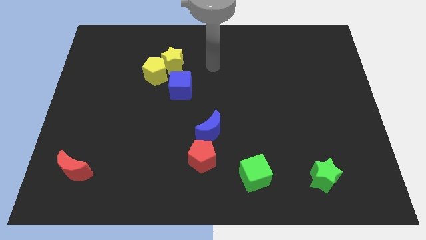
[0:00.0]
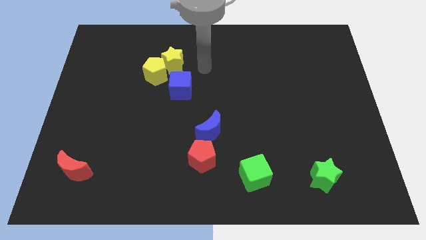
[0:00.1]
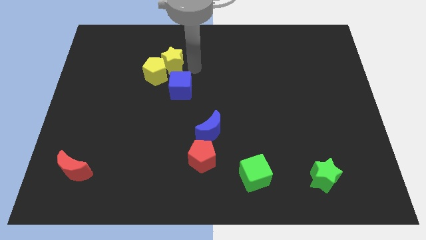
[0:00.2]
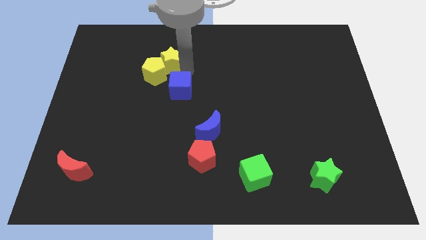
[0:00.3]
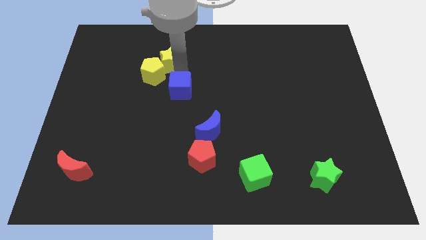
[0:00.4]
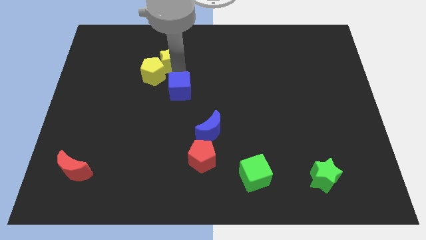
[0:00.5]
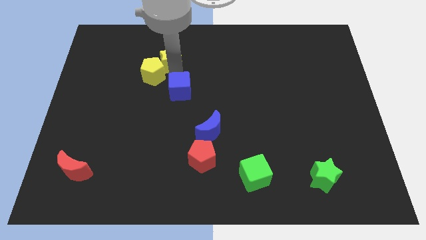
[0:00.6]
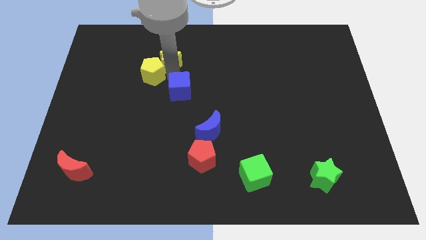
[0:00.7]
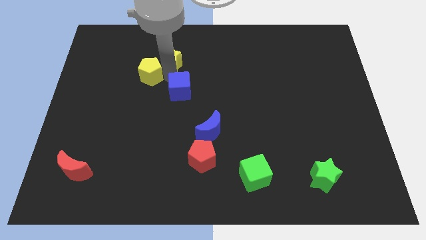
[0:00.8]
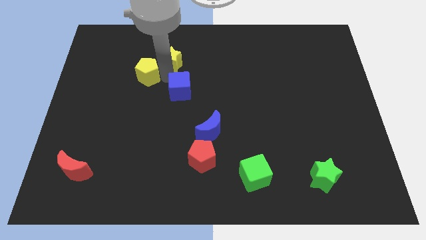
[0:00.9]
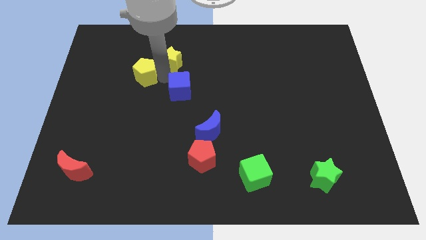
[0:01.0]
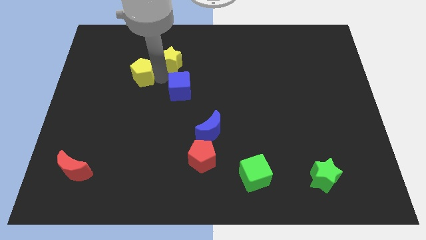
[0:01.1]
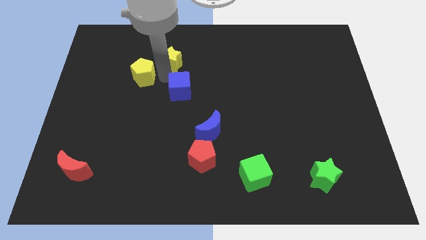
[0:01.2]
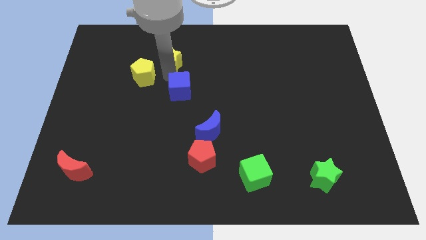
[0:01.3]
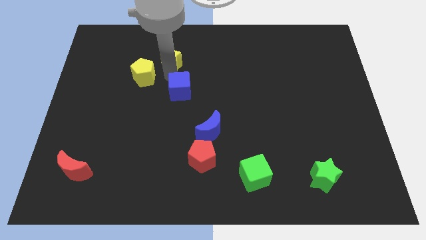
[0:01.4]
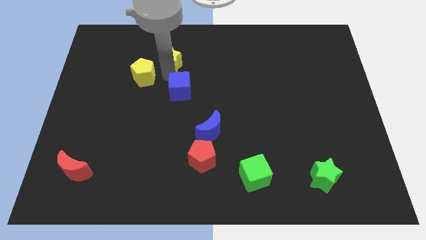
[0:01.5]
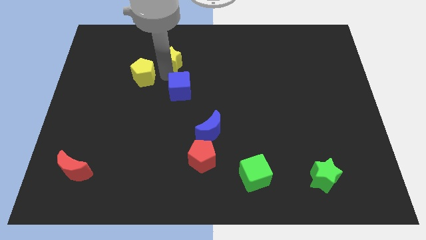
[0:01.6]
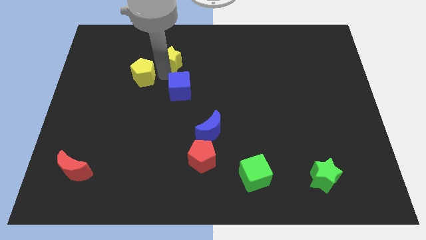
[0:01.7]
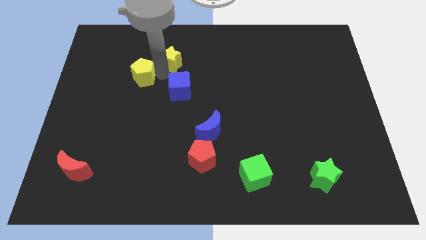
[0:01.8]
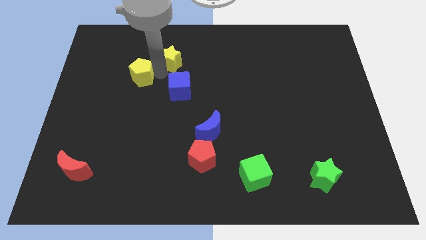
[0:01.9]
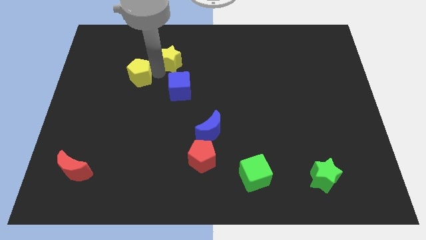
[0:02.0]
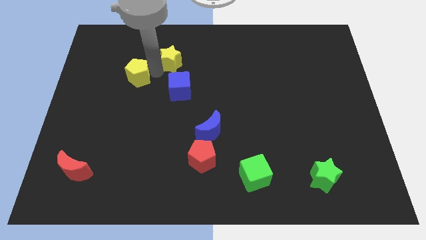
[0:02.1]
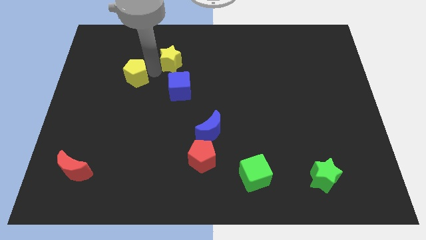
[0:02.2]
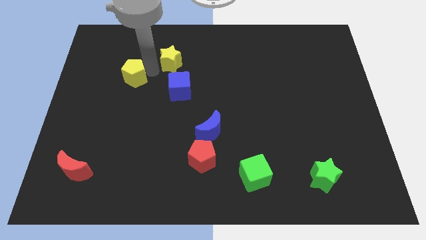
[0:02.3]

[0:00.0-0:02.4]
separate the yellow pentagon from the yellow star and blue cube

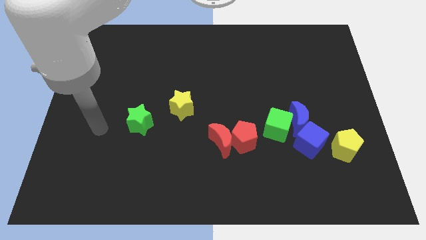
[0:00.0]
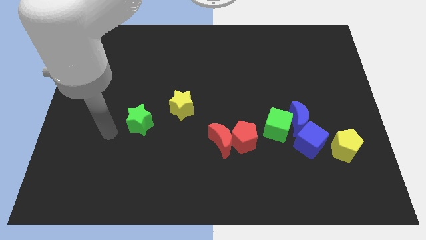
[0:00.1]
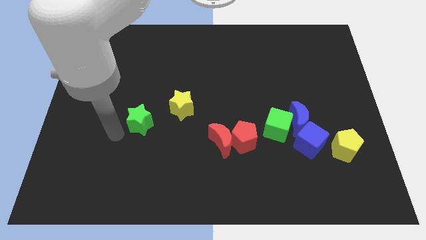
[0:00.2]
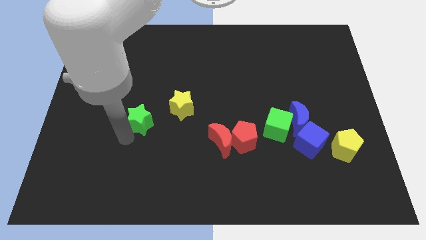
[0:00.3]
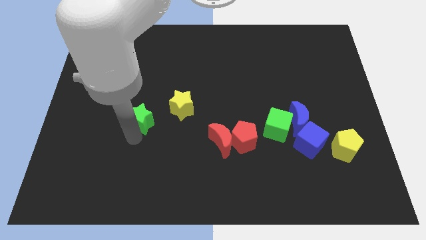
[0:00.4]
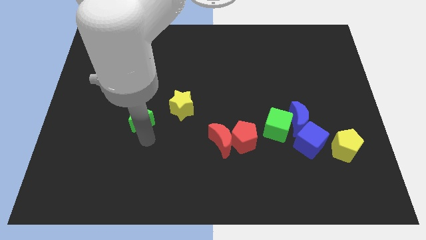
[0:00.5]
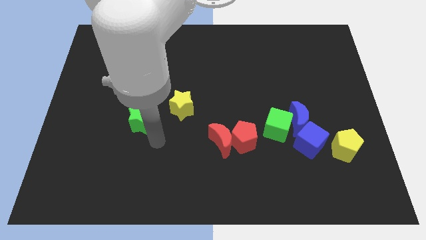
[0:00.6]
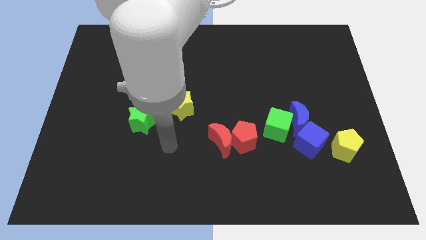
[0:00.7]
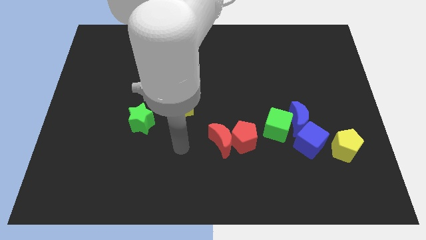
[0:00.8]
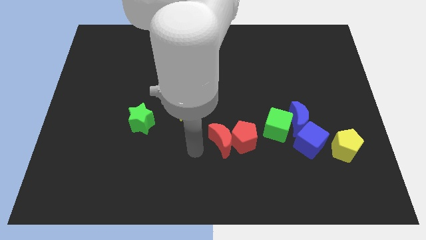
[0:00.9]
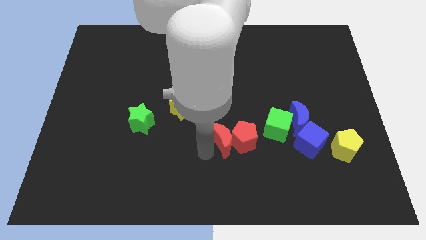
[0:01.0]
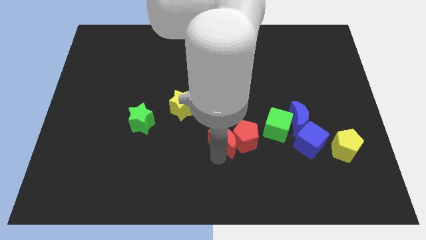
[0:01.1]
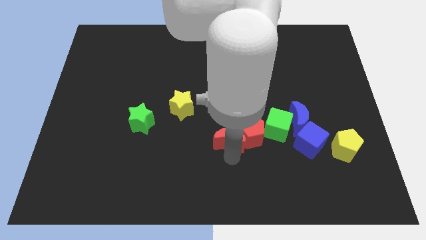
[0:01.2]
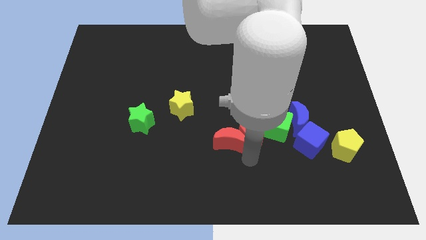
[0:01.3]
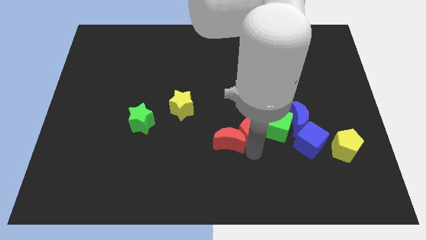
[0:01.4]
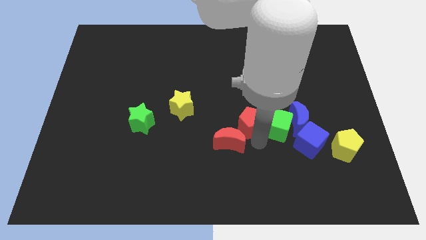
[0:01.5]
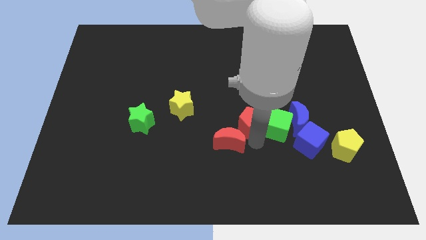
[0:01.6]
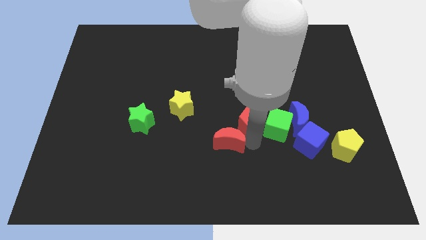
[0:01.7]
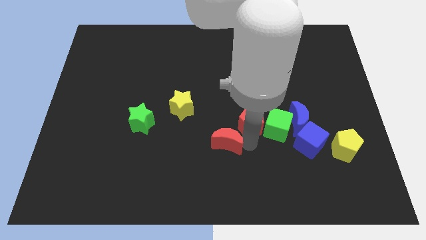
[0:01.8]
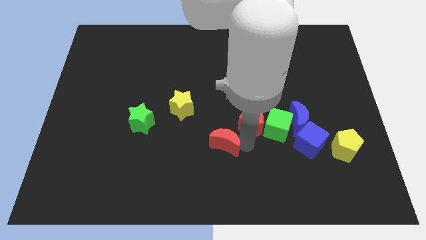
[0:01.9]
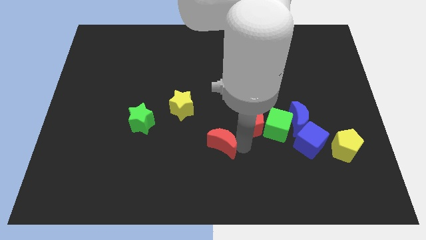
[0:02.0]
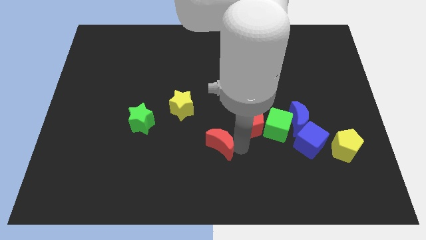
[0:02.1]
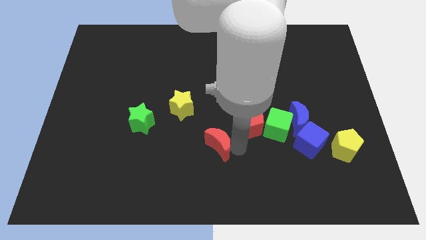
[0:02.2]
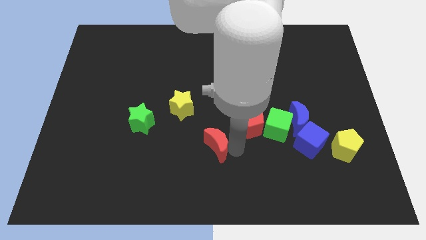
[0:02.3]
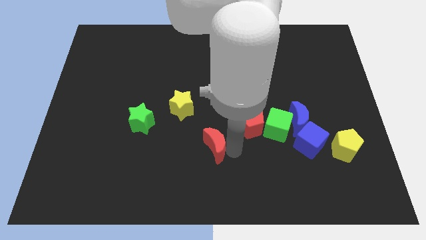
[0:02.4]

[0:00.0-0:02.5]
pull the red moon apart from the red pentagon

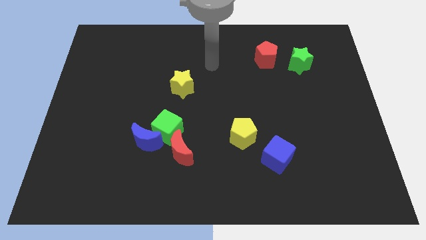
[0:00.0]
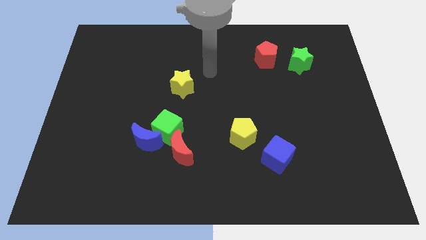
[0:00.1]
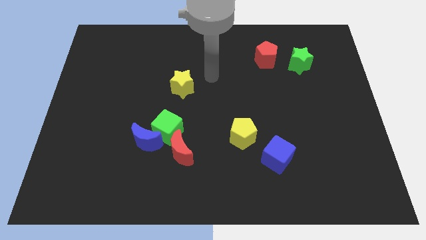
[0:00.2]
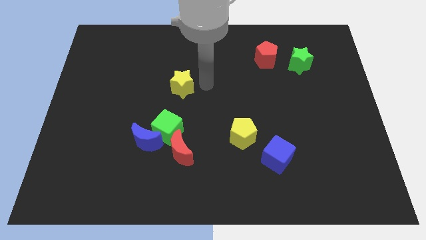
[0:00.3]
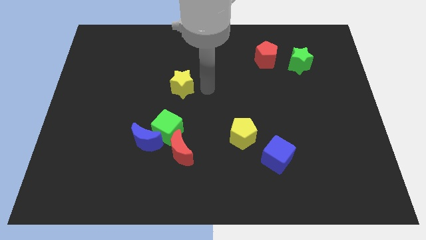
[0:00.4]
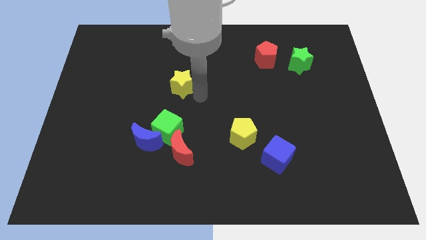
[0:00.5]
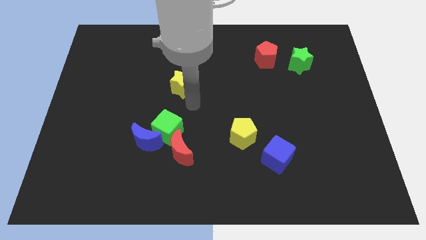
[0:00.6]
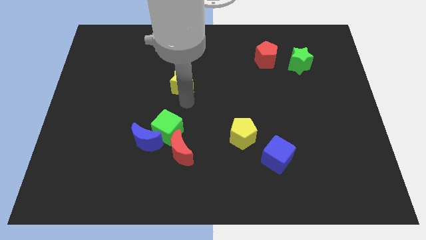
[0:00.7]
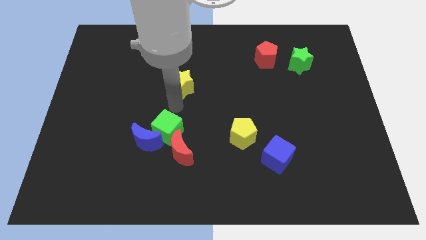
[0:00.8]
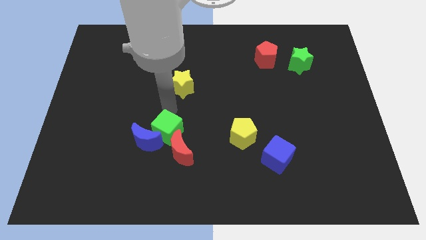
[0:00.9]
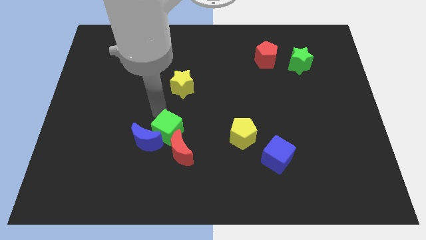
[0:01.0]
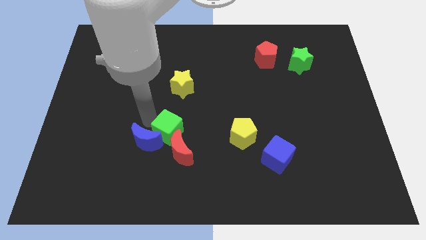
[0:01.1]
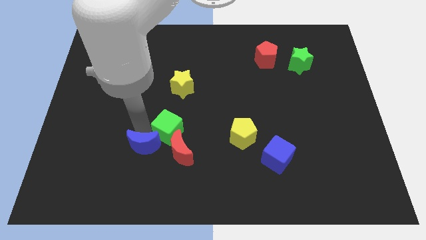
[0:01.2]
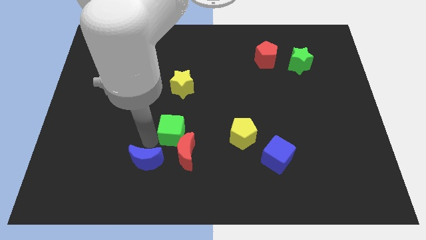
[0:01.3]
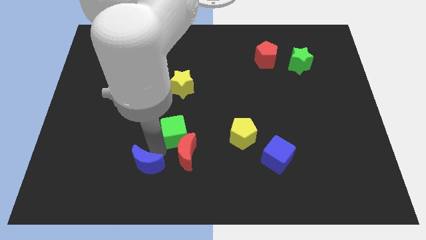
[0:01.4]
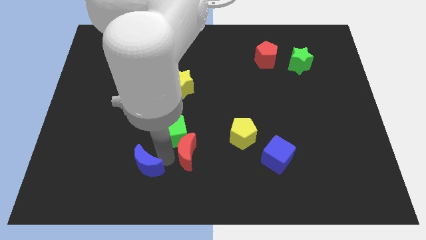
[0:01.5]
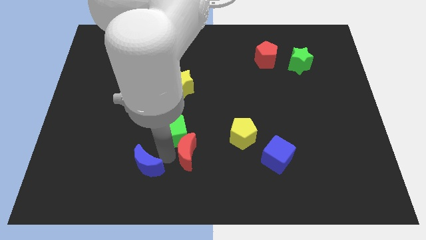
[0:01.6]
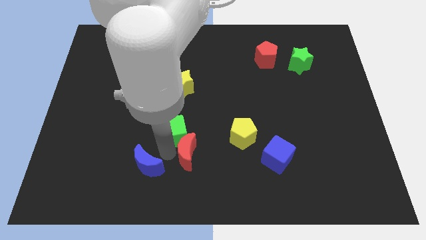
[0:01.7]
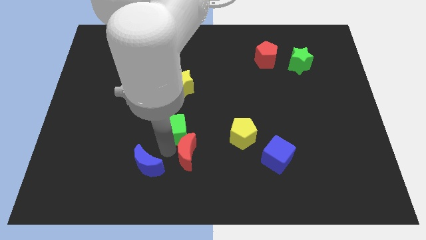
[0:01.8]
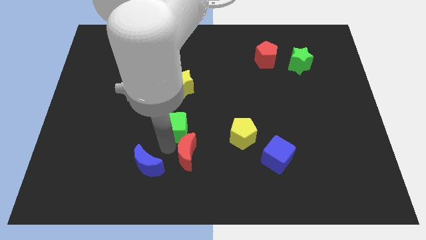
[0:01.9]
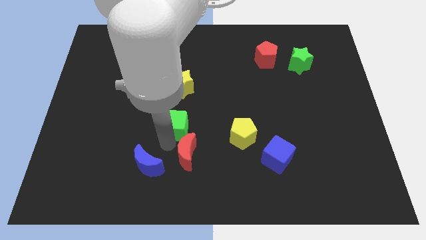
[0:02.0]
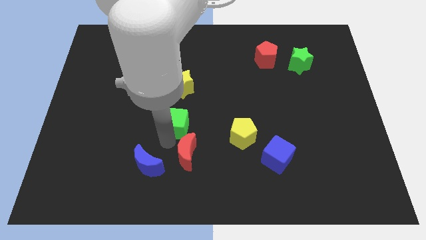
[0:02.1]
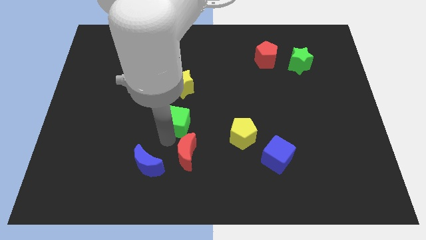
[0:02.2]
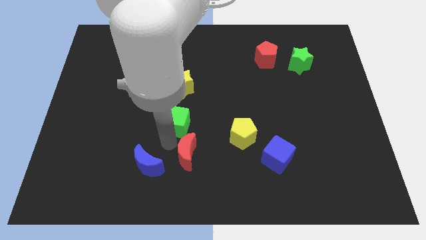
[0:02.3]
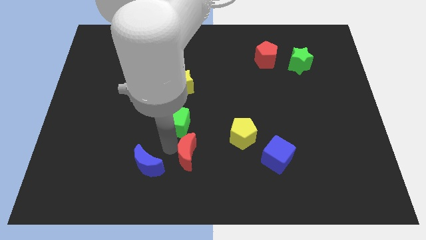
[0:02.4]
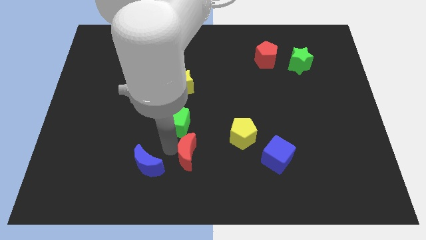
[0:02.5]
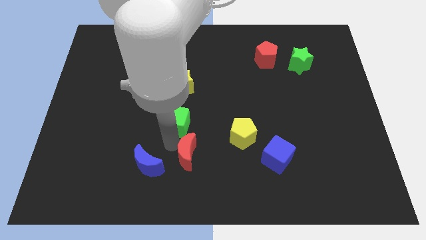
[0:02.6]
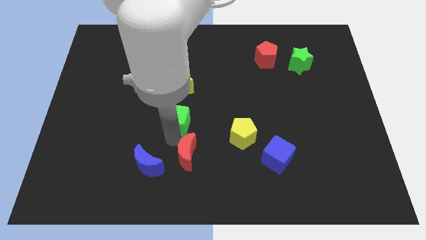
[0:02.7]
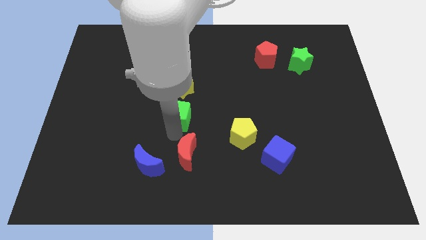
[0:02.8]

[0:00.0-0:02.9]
move the green cube away from the blue moon and red moon

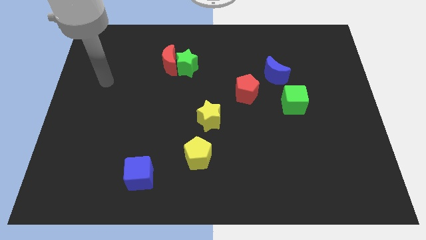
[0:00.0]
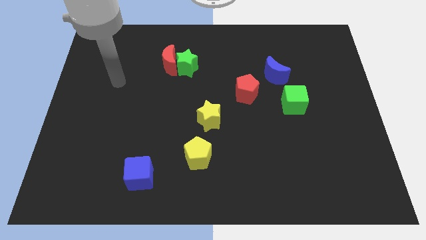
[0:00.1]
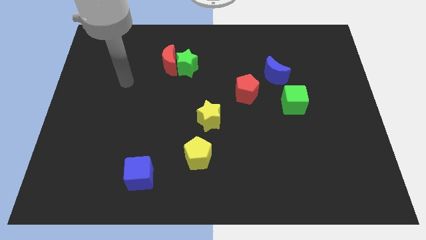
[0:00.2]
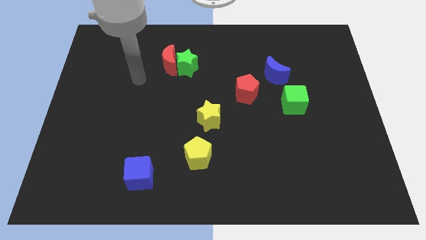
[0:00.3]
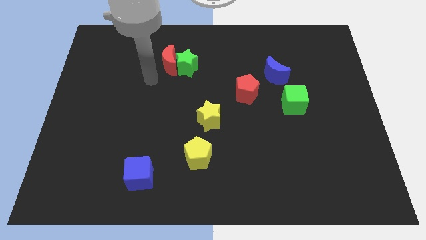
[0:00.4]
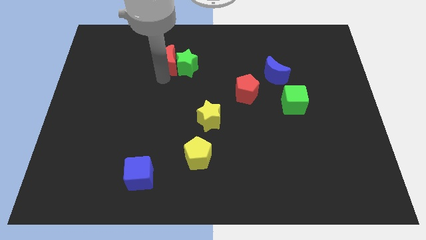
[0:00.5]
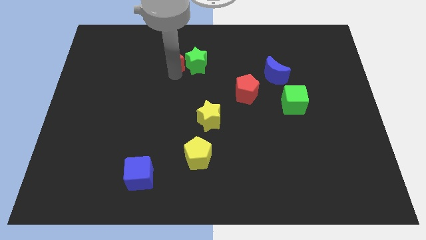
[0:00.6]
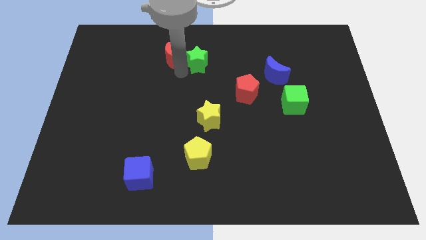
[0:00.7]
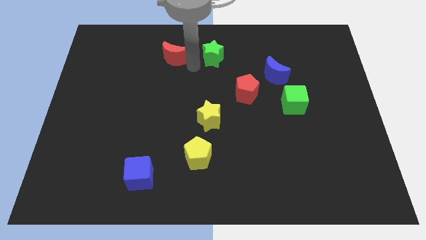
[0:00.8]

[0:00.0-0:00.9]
move the red moon away from the green star

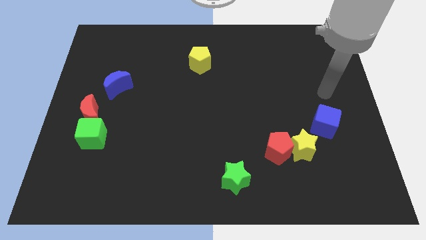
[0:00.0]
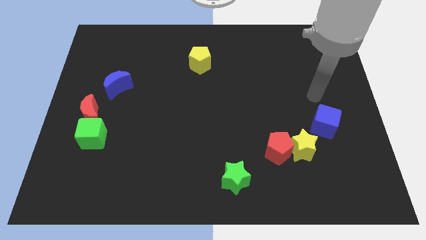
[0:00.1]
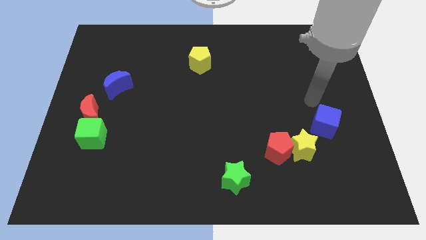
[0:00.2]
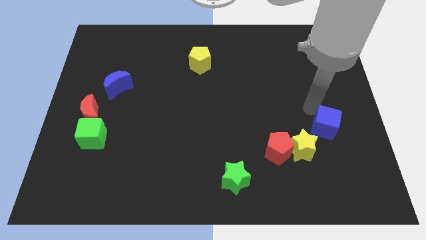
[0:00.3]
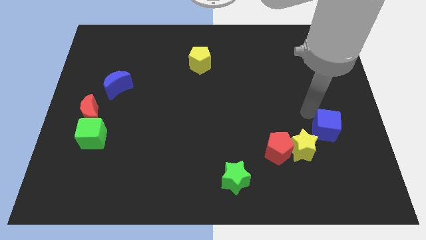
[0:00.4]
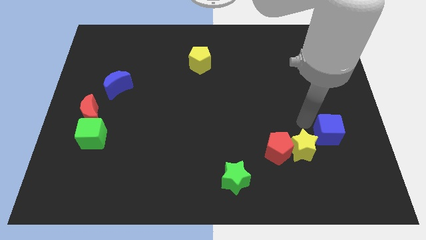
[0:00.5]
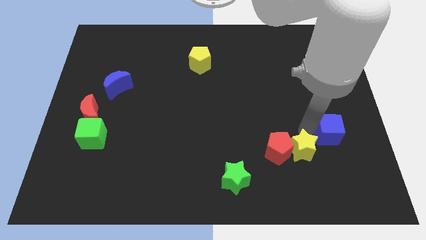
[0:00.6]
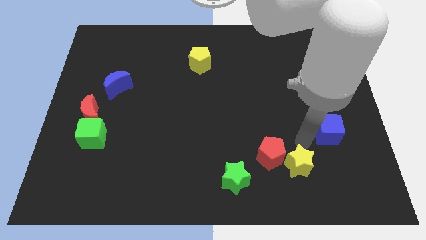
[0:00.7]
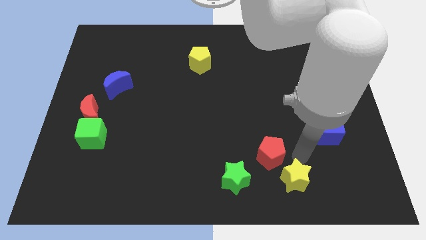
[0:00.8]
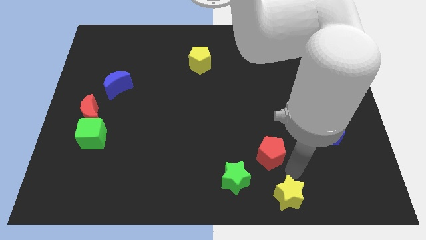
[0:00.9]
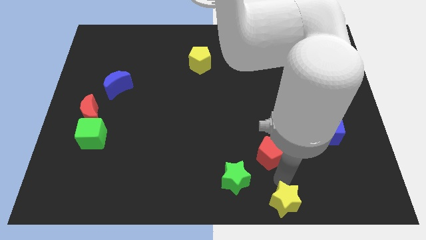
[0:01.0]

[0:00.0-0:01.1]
separate the red pentagon from the yellow star
